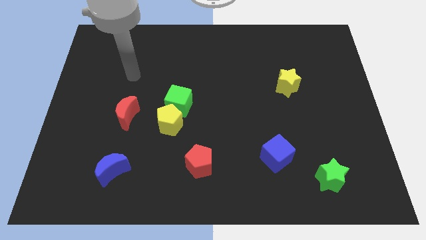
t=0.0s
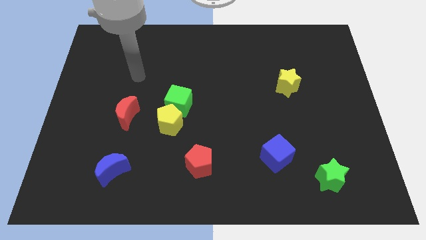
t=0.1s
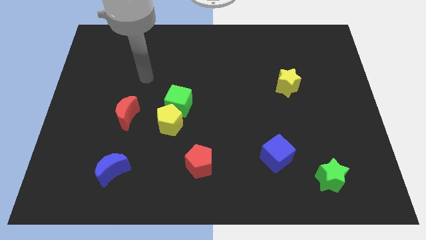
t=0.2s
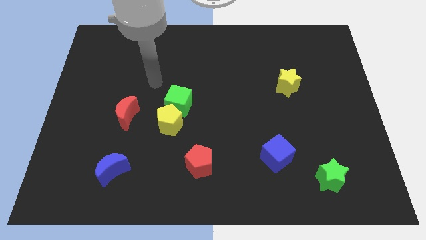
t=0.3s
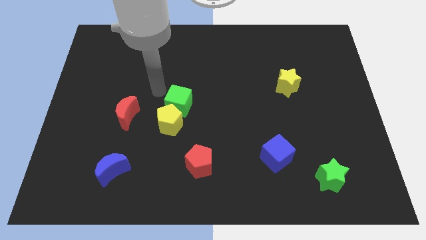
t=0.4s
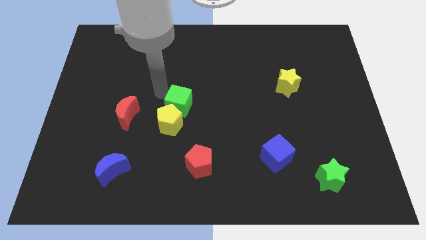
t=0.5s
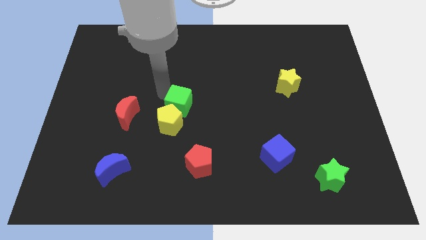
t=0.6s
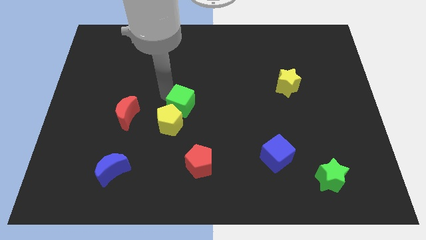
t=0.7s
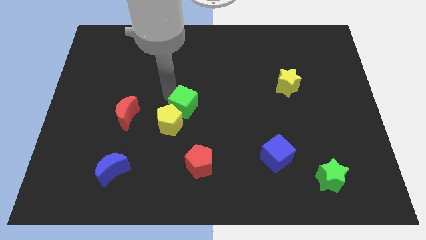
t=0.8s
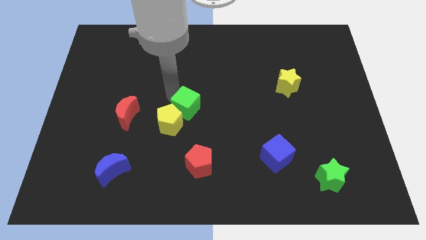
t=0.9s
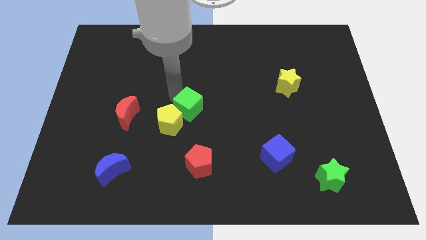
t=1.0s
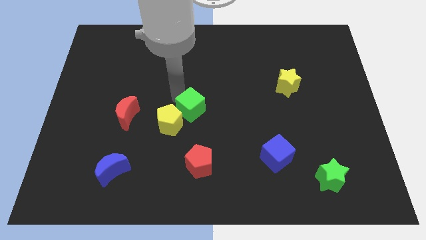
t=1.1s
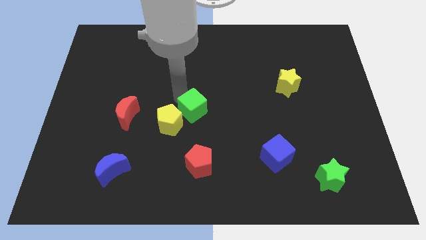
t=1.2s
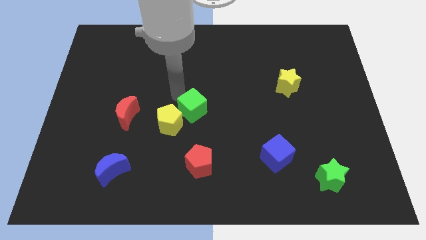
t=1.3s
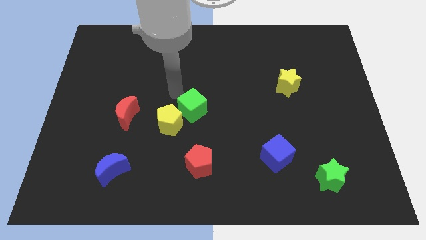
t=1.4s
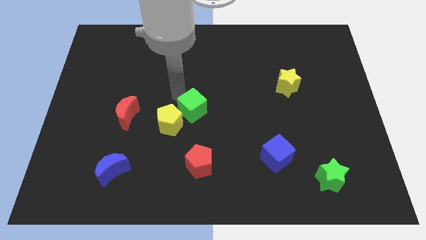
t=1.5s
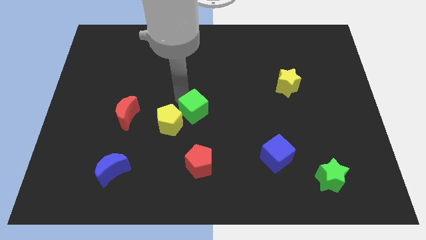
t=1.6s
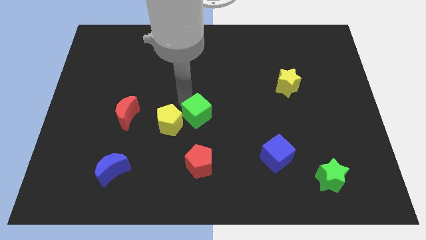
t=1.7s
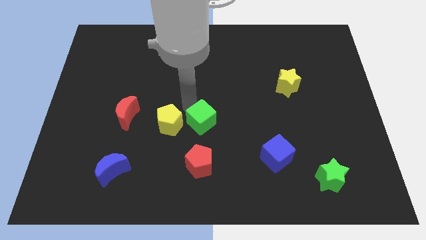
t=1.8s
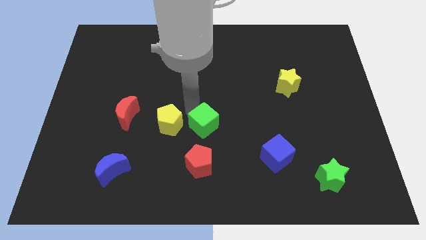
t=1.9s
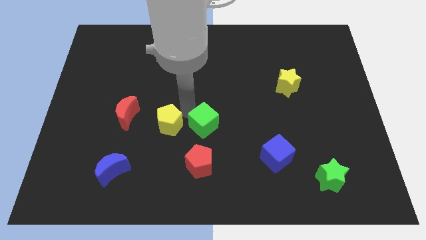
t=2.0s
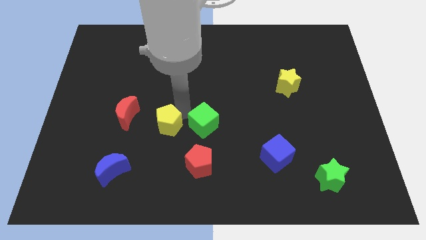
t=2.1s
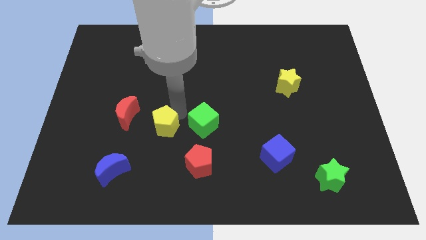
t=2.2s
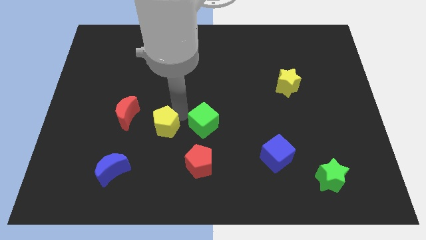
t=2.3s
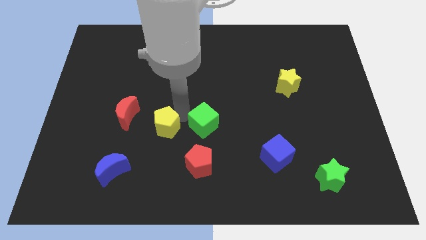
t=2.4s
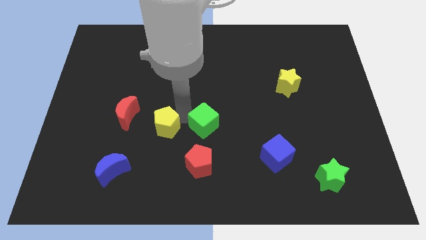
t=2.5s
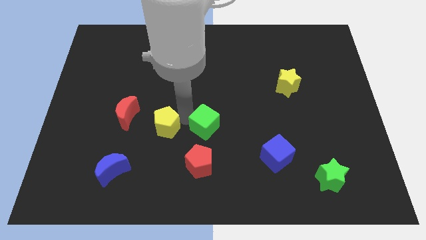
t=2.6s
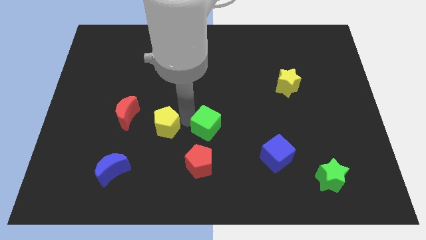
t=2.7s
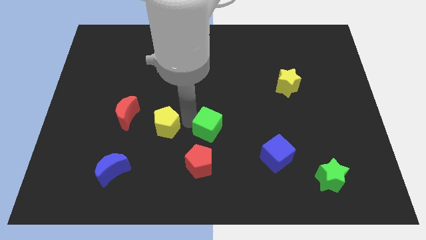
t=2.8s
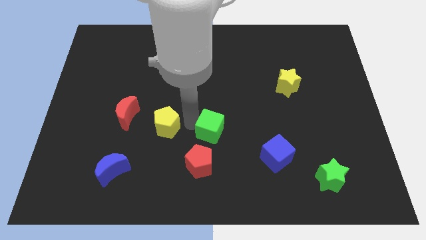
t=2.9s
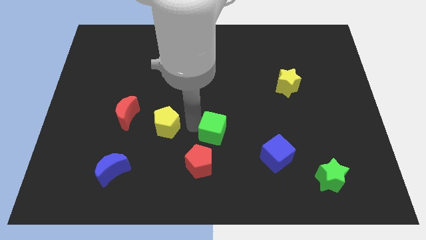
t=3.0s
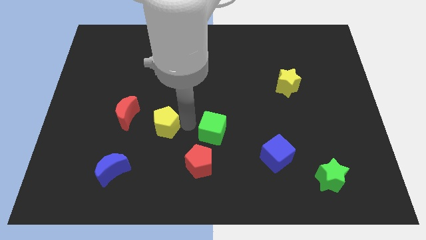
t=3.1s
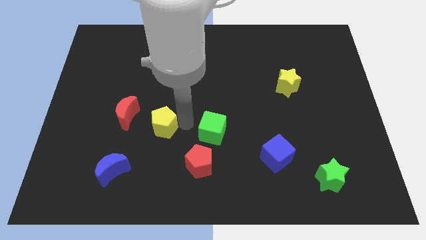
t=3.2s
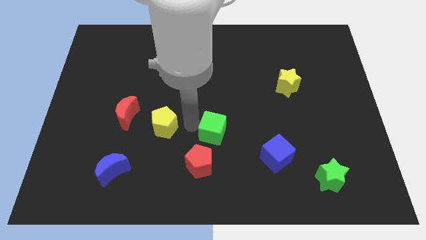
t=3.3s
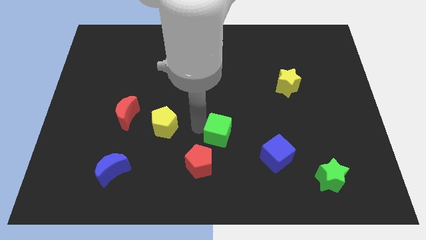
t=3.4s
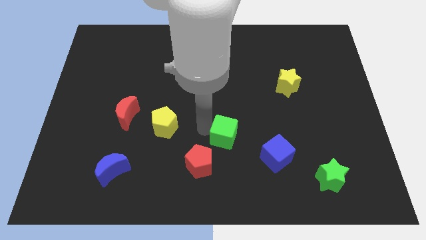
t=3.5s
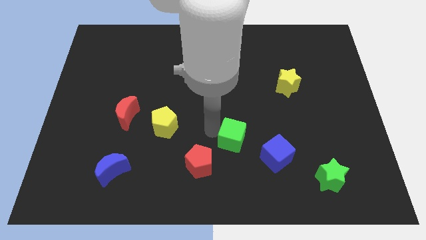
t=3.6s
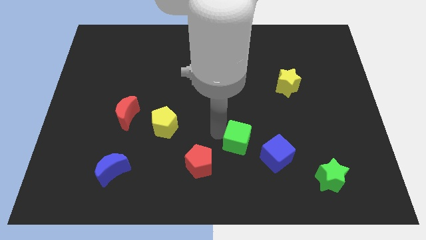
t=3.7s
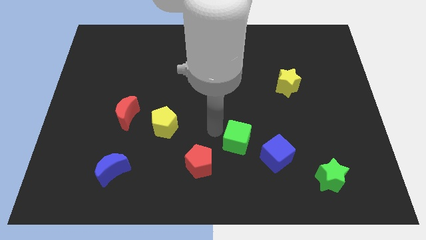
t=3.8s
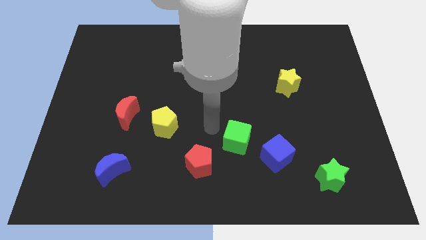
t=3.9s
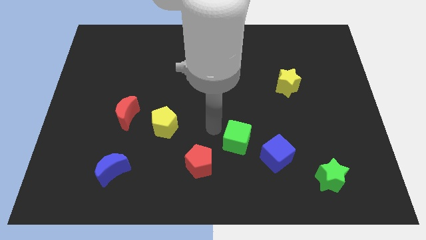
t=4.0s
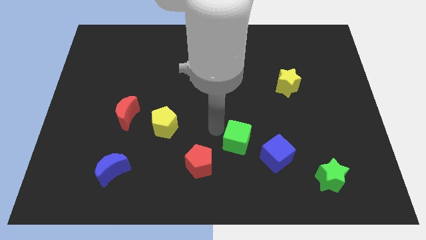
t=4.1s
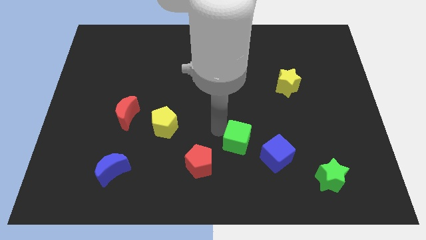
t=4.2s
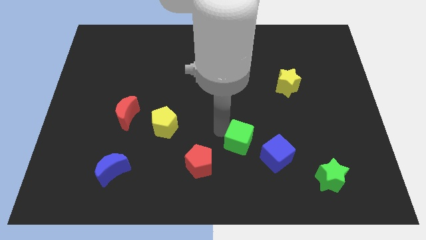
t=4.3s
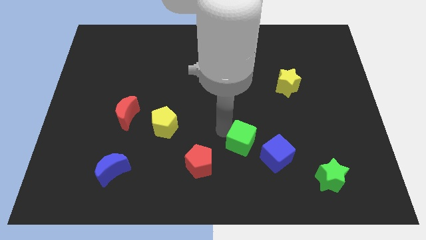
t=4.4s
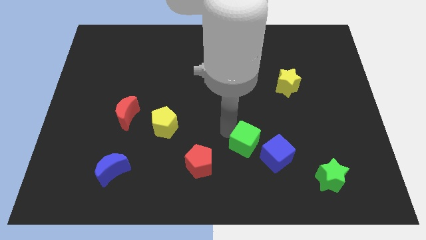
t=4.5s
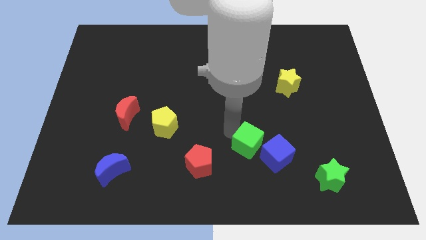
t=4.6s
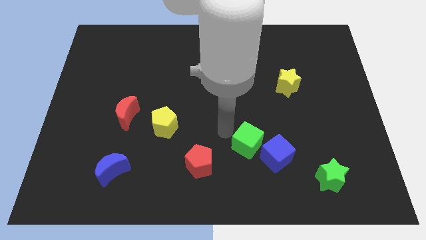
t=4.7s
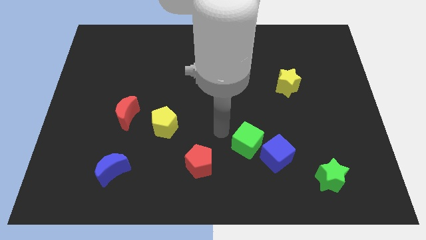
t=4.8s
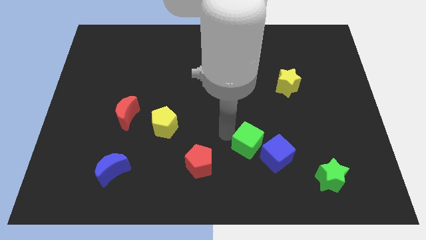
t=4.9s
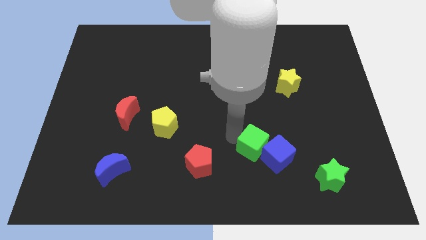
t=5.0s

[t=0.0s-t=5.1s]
push the green cube next to the blue cube

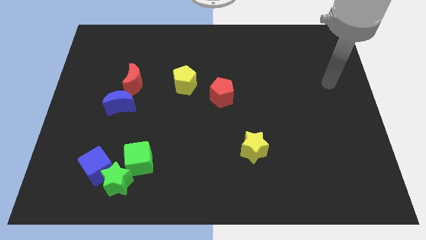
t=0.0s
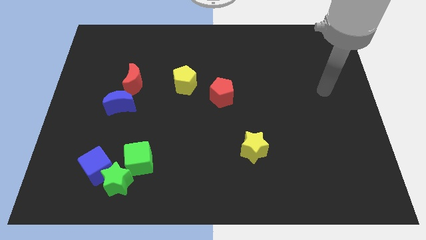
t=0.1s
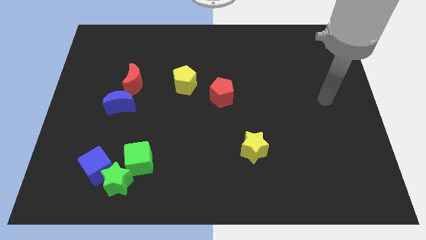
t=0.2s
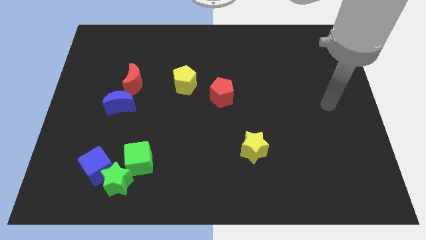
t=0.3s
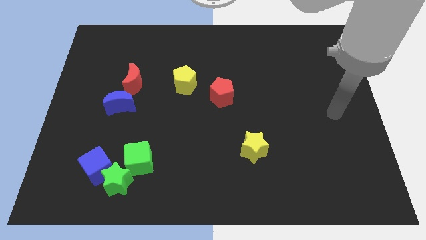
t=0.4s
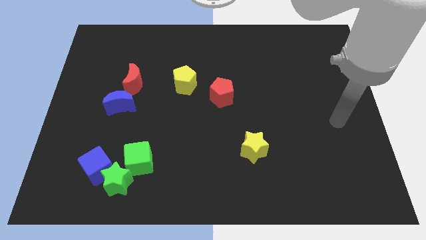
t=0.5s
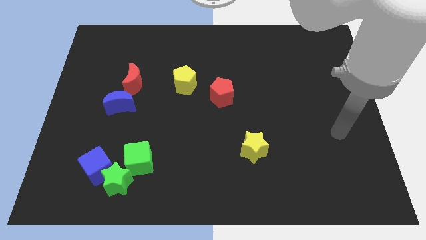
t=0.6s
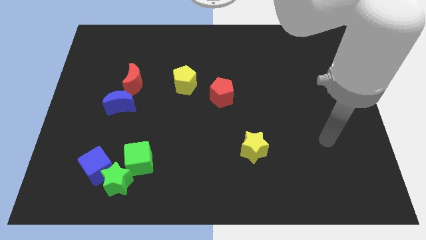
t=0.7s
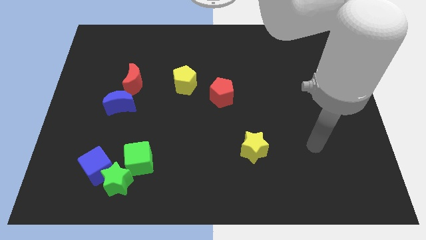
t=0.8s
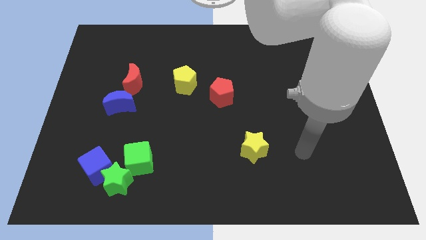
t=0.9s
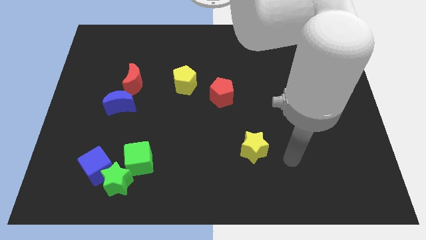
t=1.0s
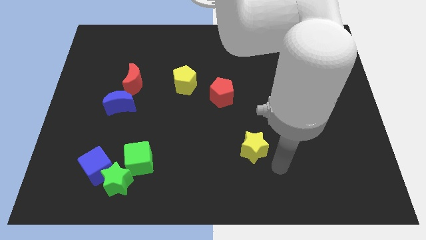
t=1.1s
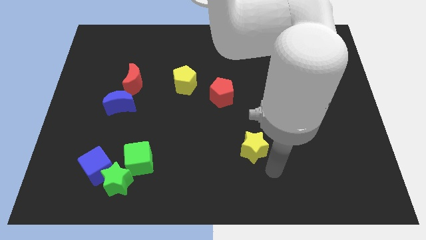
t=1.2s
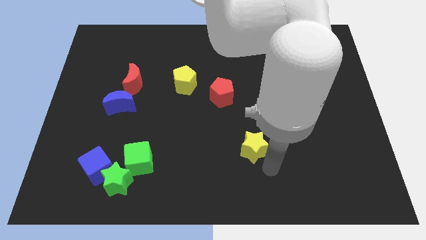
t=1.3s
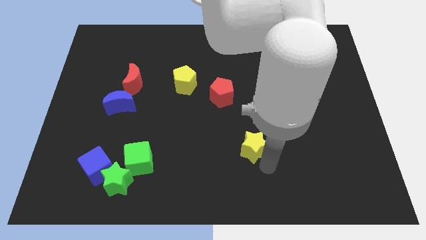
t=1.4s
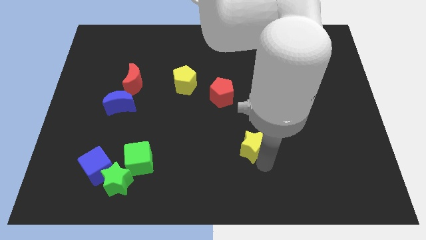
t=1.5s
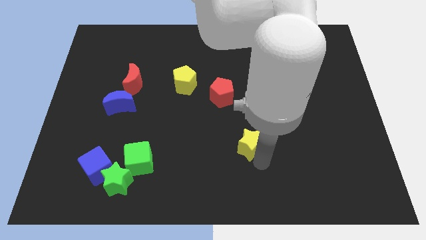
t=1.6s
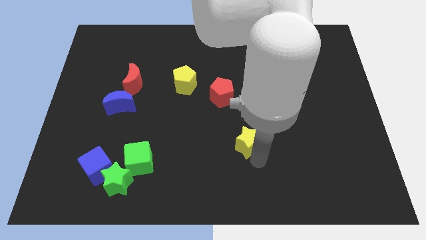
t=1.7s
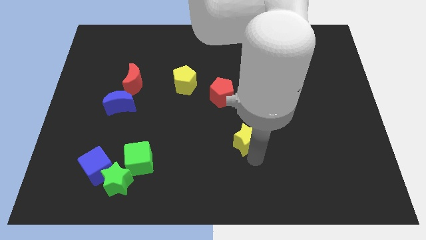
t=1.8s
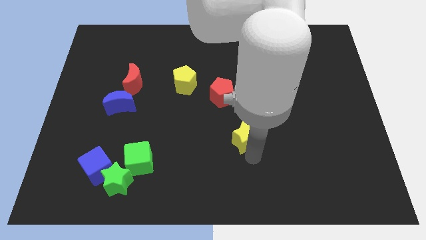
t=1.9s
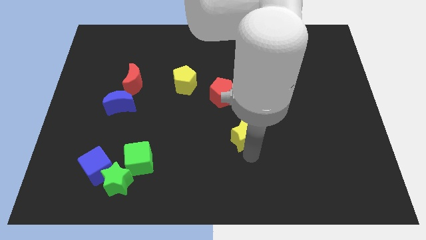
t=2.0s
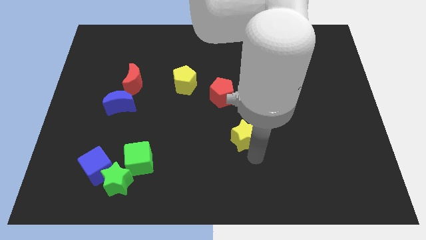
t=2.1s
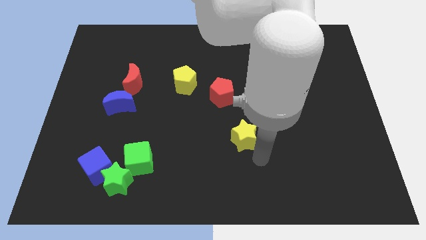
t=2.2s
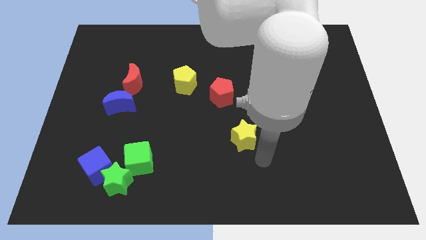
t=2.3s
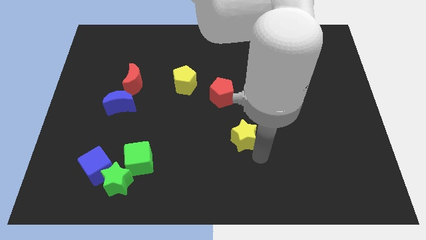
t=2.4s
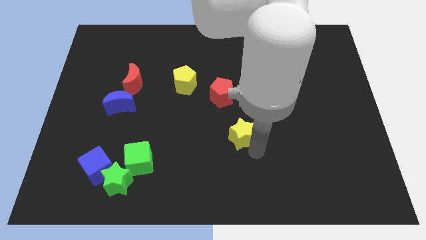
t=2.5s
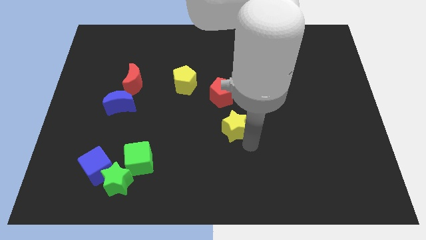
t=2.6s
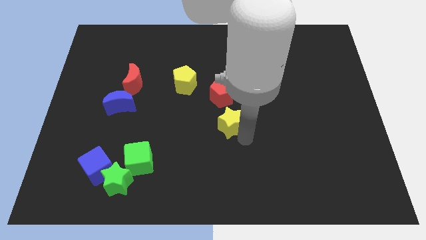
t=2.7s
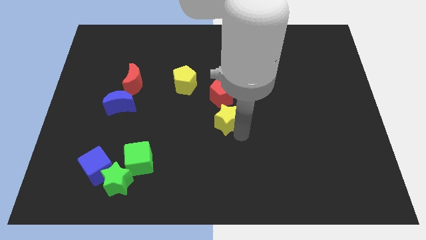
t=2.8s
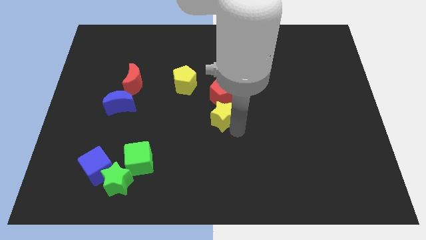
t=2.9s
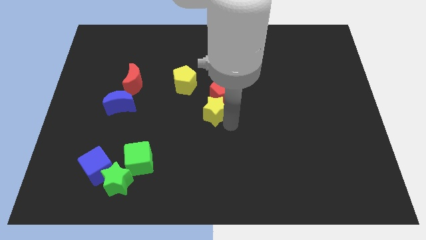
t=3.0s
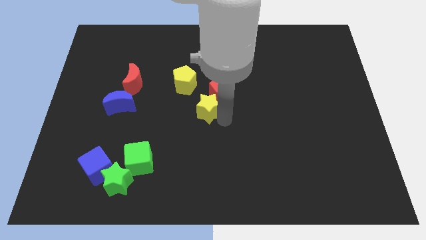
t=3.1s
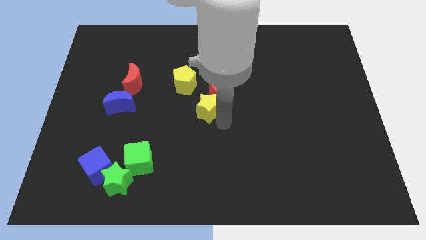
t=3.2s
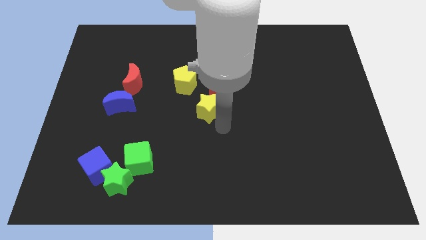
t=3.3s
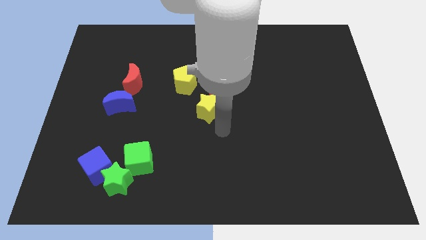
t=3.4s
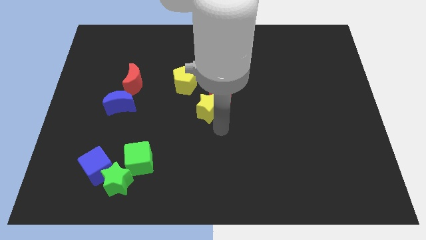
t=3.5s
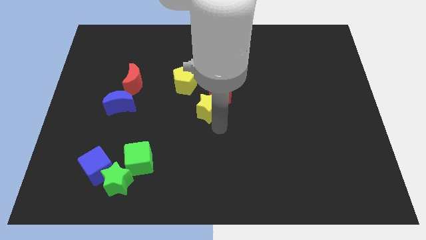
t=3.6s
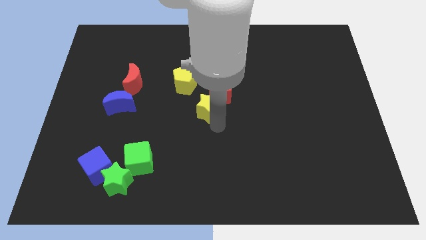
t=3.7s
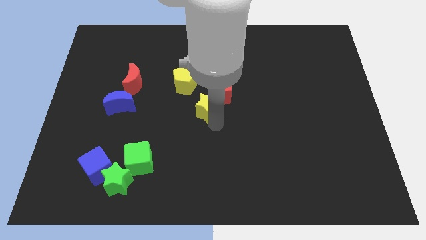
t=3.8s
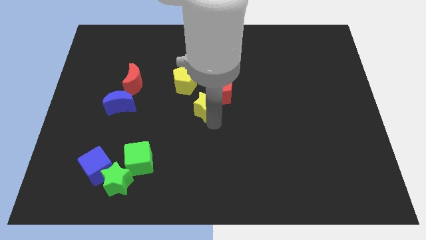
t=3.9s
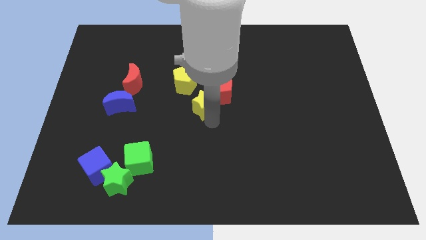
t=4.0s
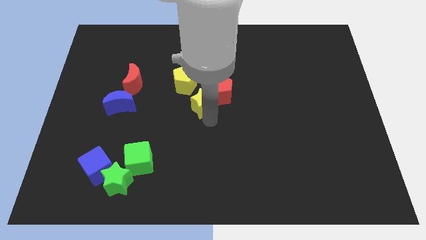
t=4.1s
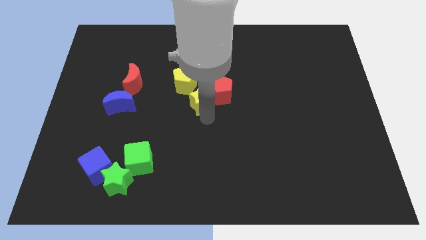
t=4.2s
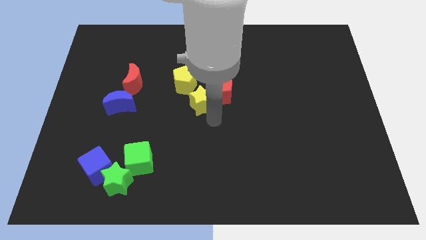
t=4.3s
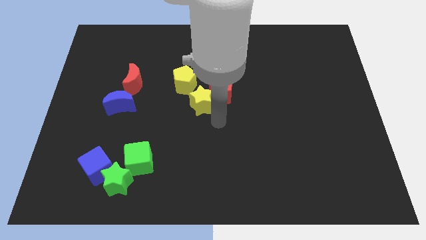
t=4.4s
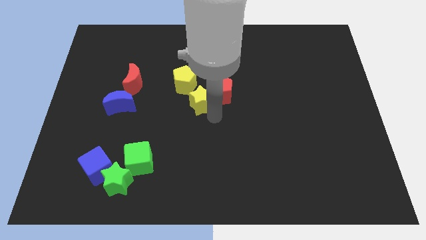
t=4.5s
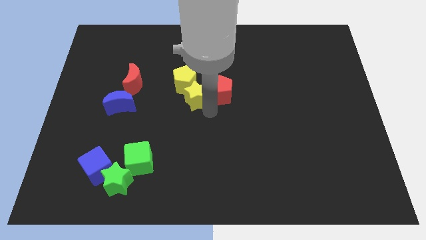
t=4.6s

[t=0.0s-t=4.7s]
slide the yellow star close to the yellow pentagon
